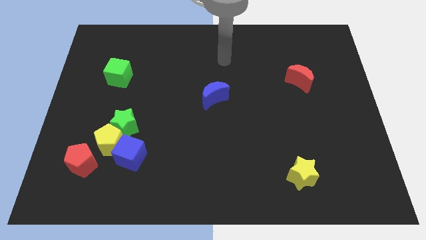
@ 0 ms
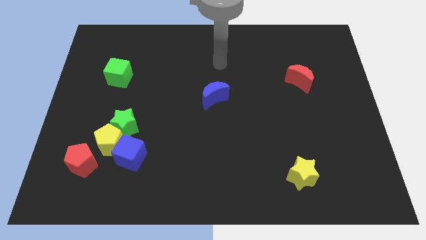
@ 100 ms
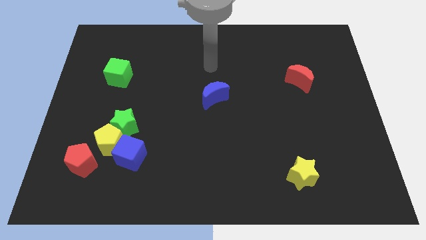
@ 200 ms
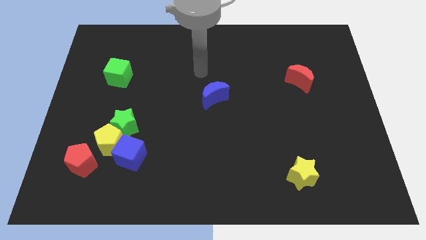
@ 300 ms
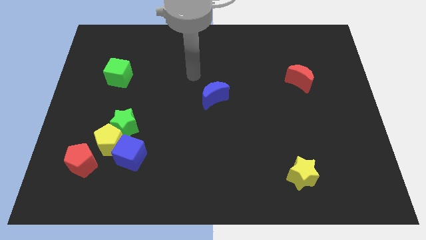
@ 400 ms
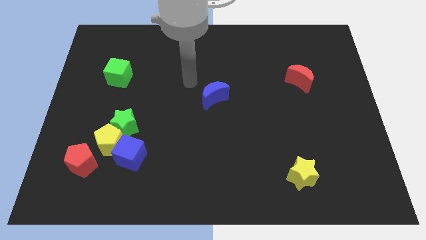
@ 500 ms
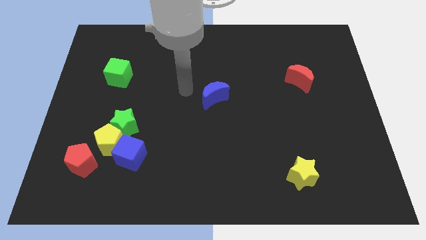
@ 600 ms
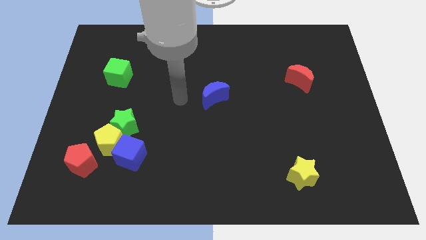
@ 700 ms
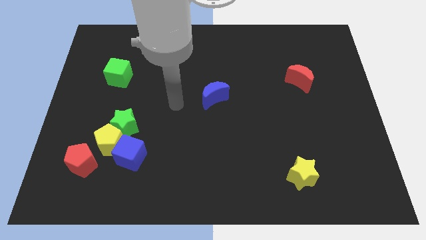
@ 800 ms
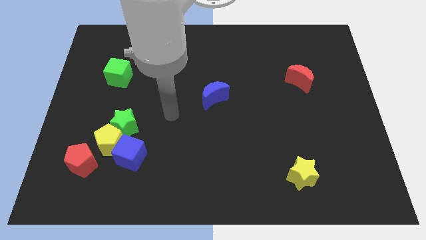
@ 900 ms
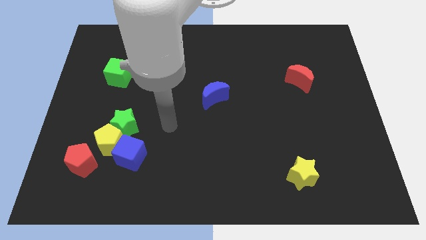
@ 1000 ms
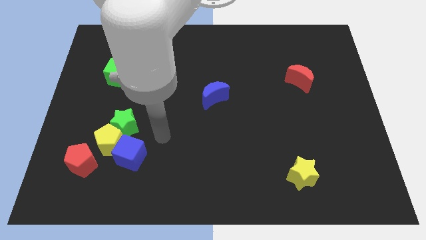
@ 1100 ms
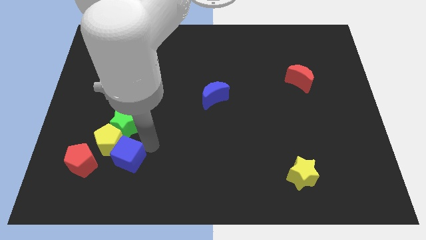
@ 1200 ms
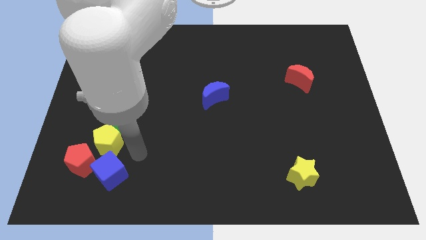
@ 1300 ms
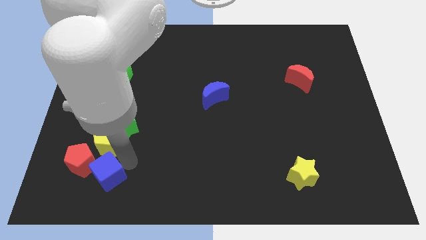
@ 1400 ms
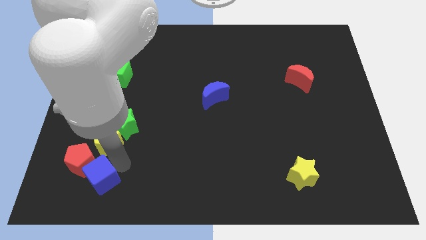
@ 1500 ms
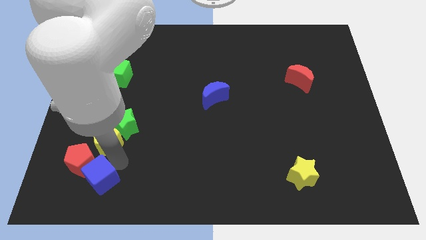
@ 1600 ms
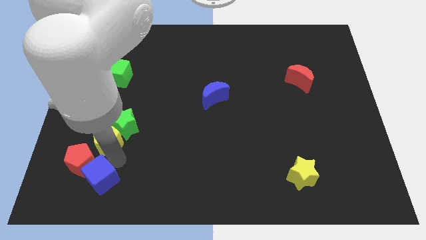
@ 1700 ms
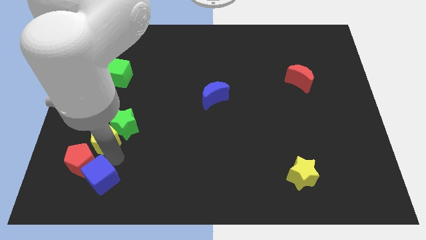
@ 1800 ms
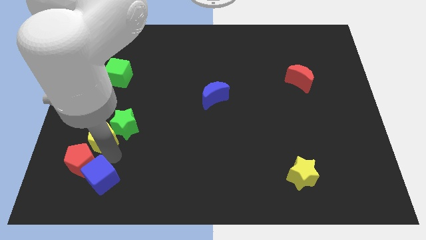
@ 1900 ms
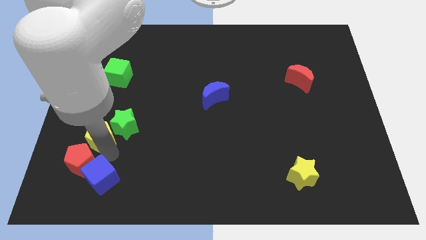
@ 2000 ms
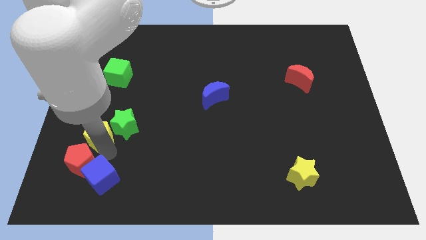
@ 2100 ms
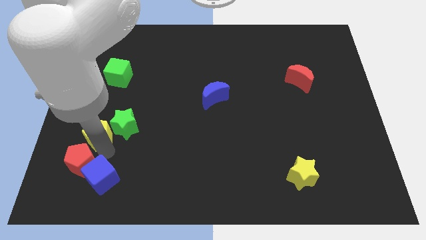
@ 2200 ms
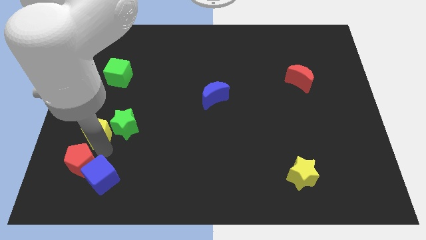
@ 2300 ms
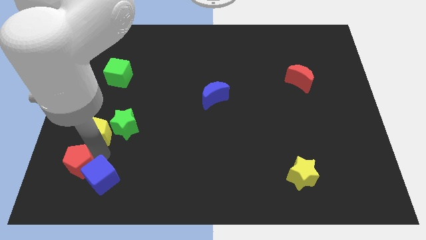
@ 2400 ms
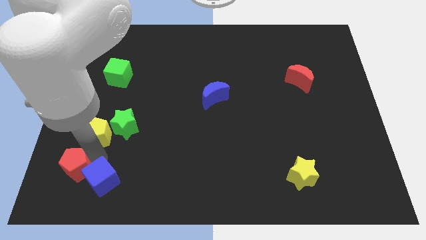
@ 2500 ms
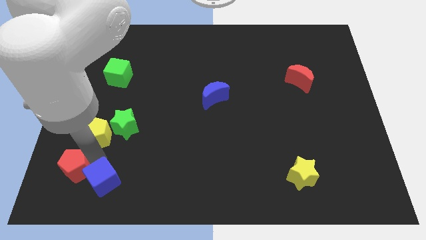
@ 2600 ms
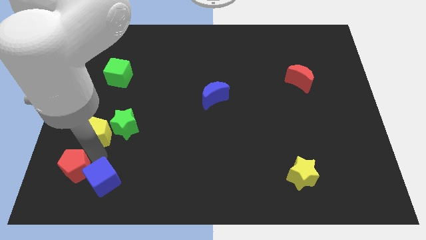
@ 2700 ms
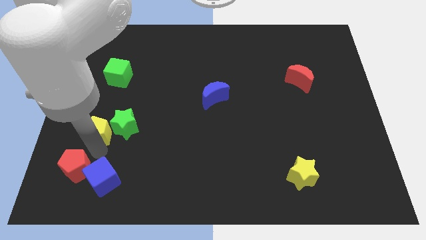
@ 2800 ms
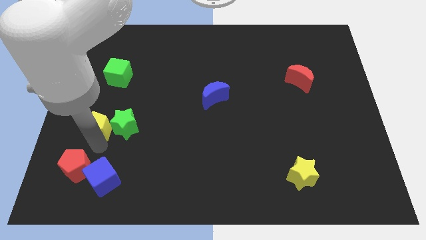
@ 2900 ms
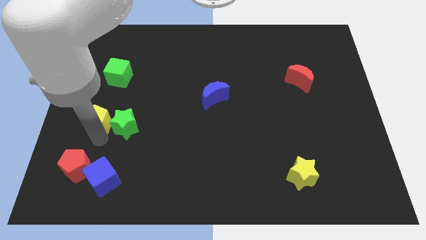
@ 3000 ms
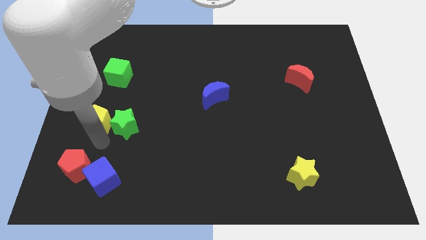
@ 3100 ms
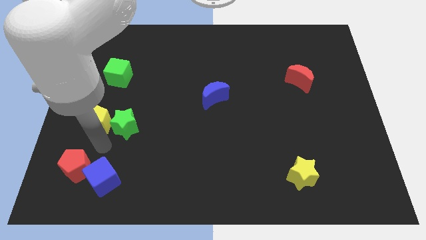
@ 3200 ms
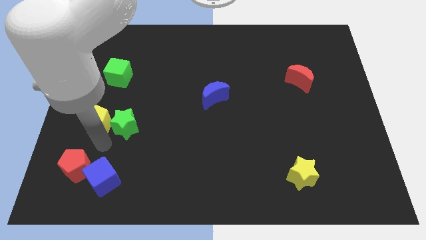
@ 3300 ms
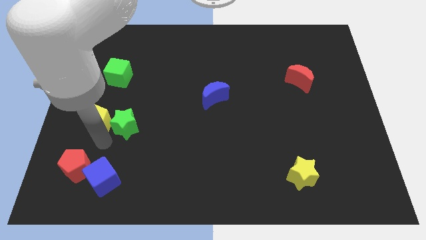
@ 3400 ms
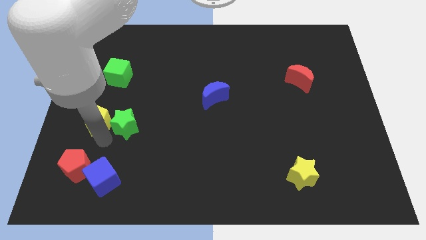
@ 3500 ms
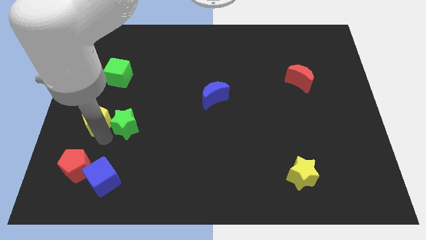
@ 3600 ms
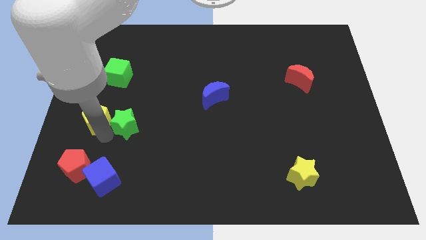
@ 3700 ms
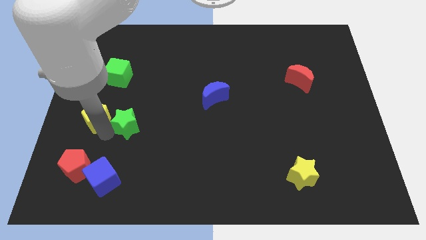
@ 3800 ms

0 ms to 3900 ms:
pull the yellow pentagon apart from the group

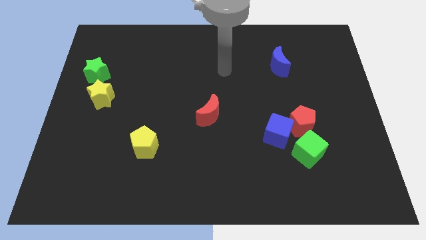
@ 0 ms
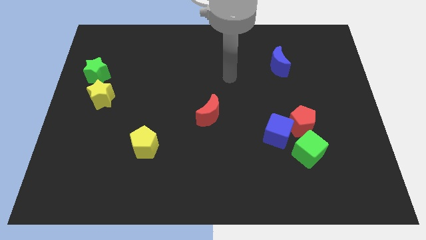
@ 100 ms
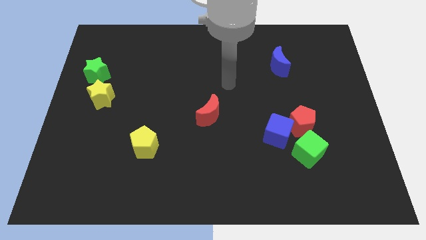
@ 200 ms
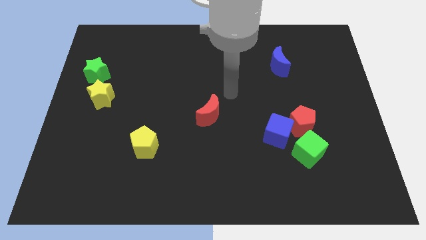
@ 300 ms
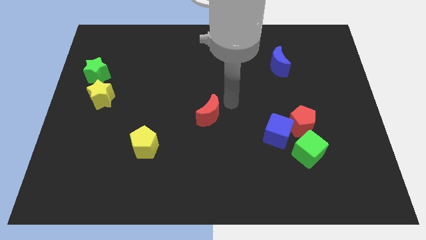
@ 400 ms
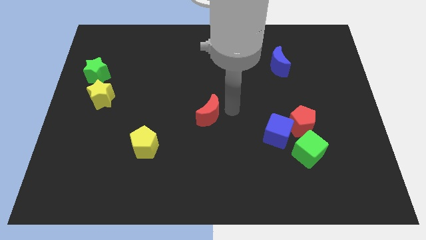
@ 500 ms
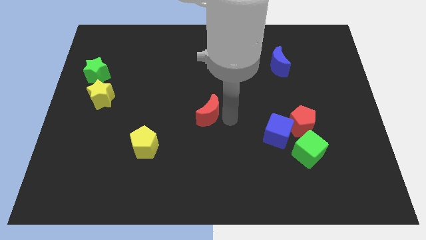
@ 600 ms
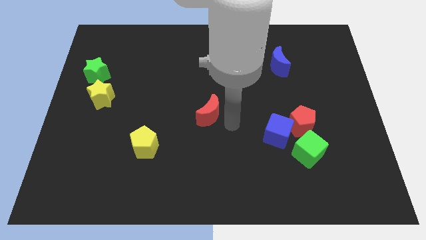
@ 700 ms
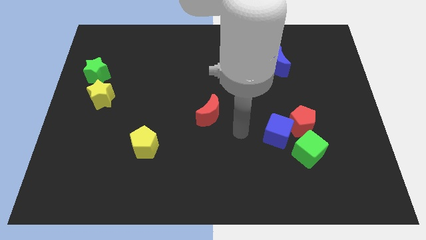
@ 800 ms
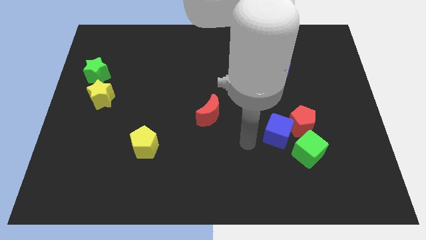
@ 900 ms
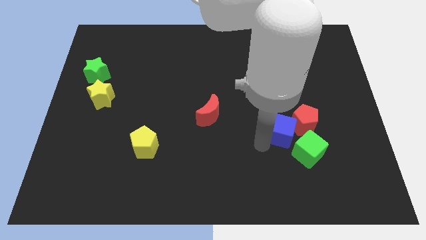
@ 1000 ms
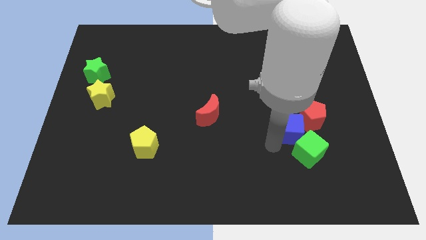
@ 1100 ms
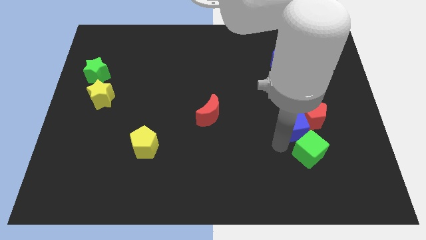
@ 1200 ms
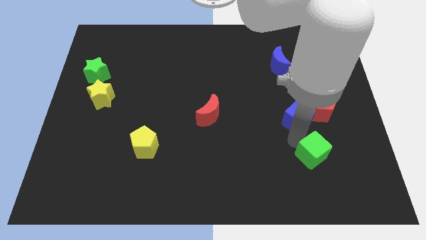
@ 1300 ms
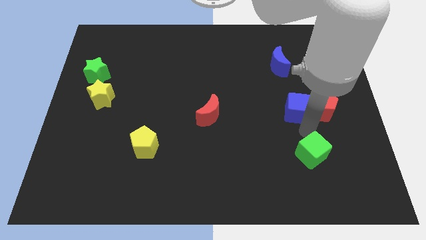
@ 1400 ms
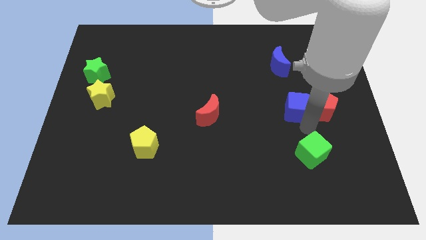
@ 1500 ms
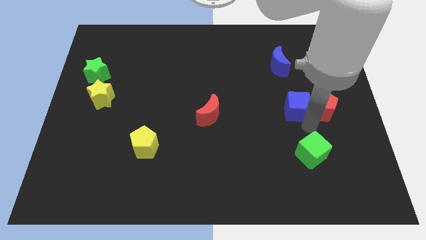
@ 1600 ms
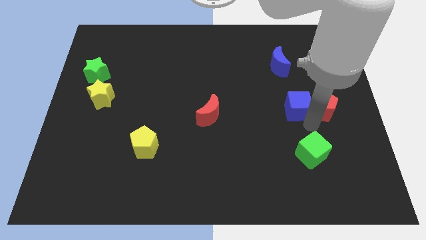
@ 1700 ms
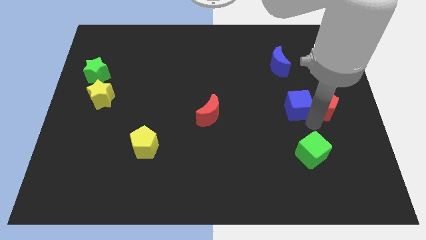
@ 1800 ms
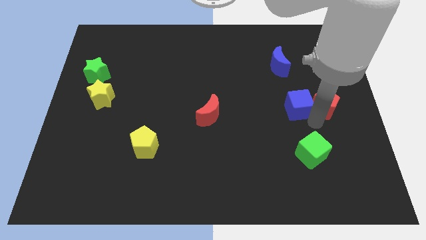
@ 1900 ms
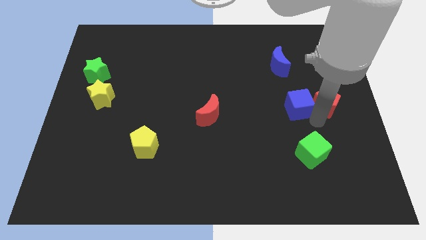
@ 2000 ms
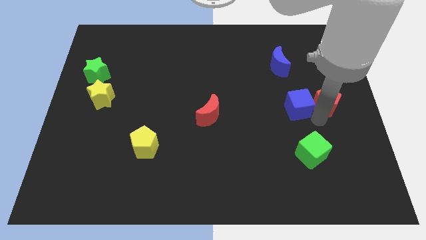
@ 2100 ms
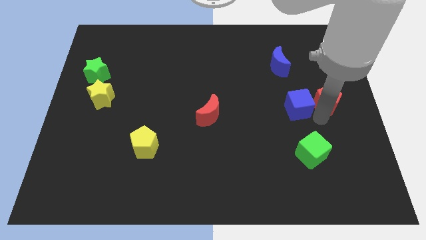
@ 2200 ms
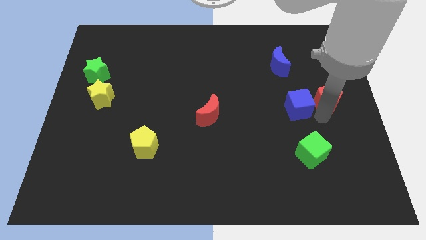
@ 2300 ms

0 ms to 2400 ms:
move the red pentagon away from the blue cube and green cube

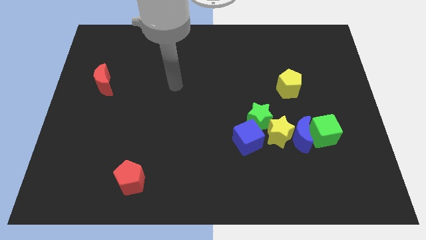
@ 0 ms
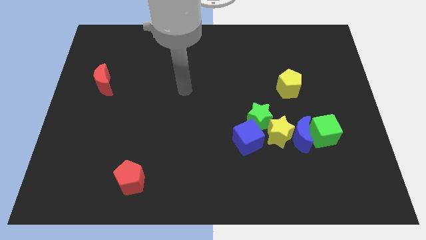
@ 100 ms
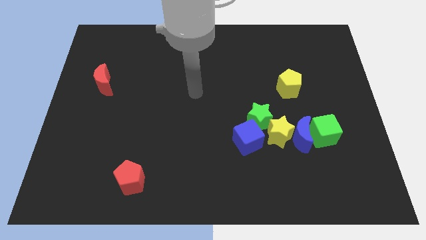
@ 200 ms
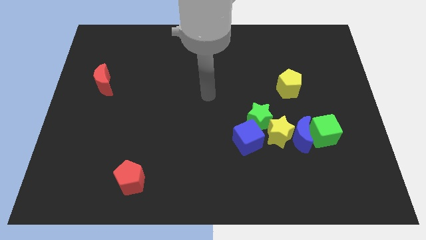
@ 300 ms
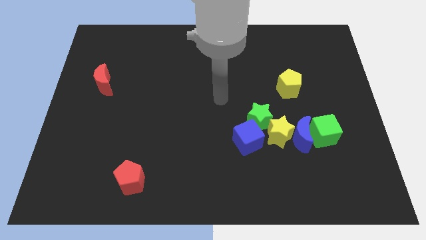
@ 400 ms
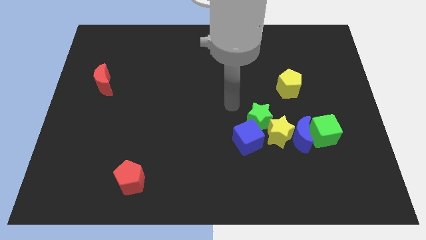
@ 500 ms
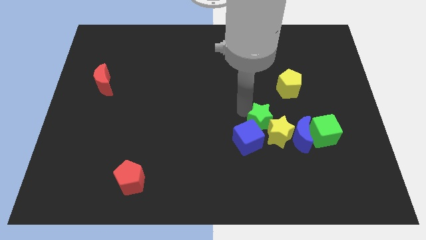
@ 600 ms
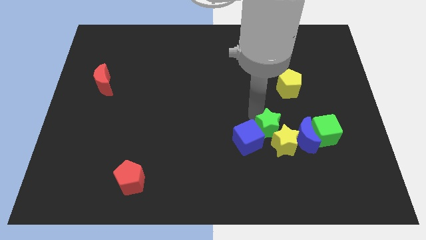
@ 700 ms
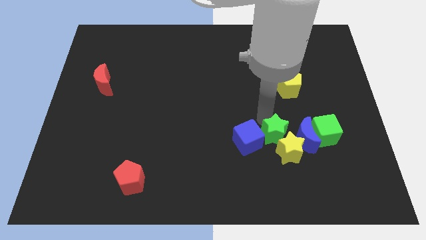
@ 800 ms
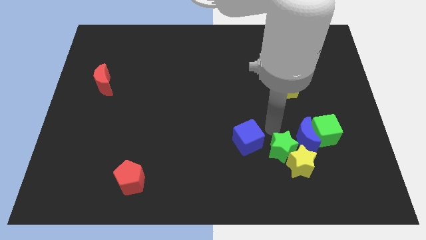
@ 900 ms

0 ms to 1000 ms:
pull the blue cube apart from the green star and yellow star

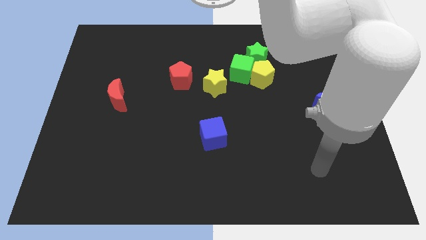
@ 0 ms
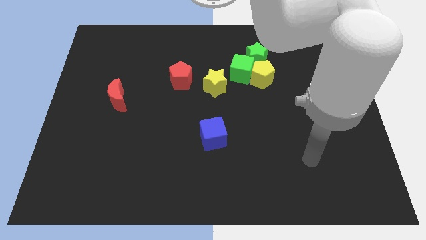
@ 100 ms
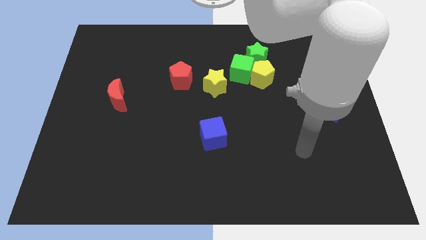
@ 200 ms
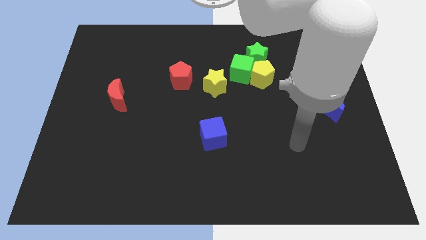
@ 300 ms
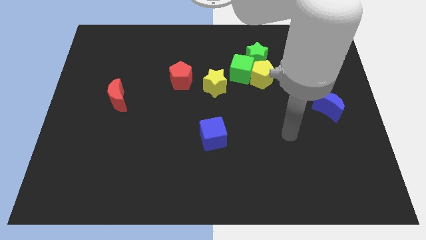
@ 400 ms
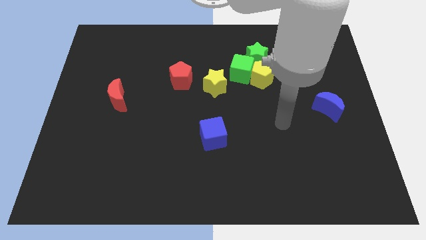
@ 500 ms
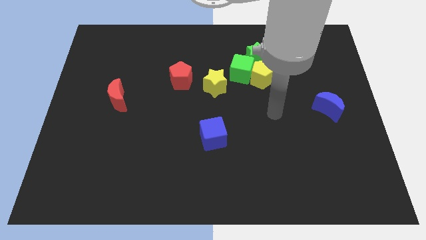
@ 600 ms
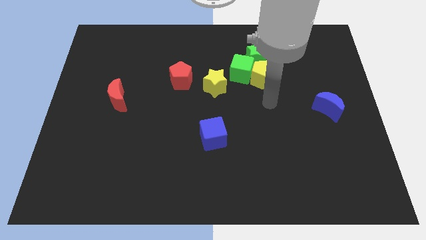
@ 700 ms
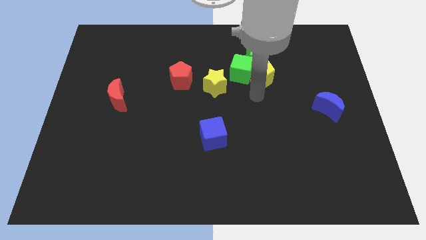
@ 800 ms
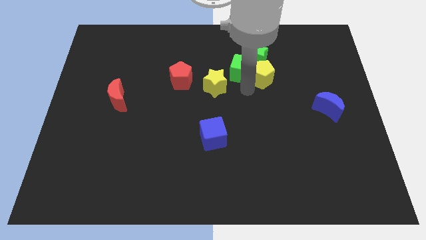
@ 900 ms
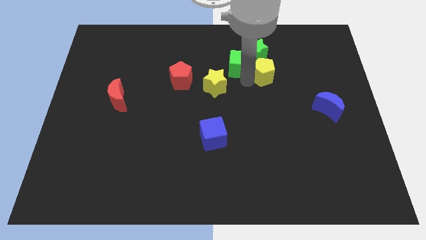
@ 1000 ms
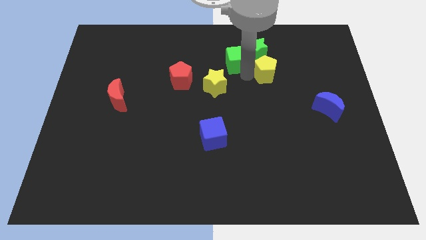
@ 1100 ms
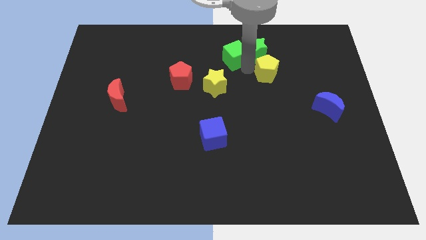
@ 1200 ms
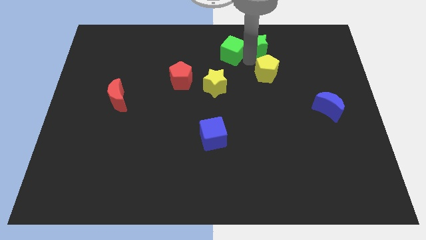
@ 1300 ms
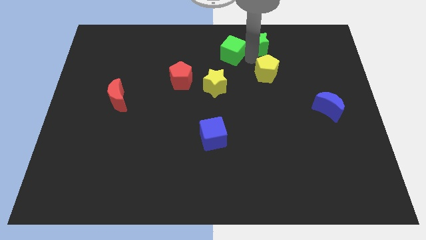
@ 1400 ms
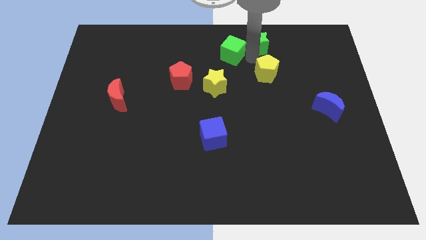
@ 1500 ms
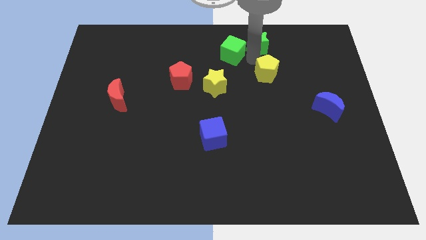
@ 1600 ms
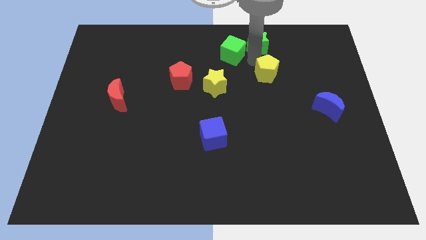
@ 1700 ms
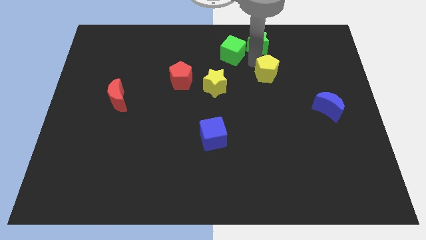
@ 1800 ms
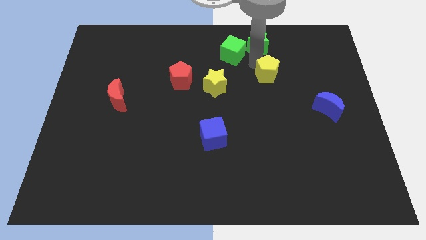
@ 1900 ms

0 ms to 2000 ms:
pull the yellow pentagon apart from the green cube and green star
